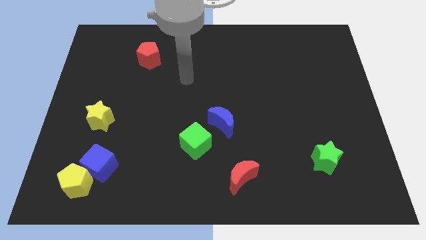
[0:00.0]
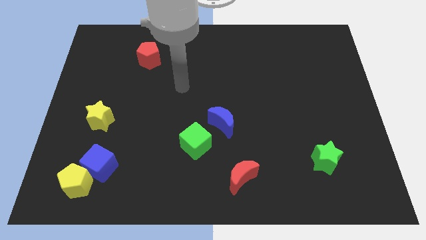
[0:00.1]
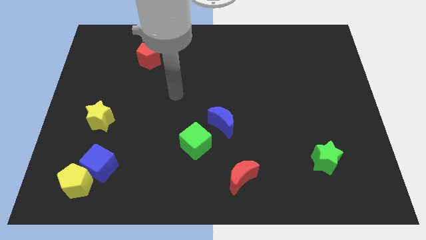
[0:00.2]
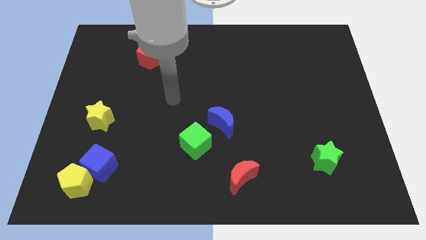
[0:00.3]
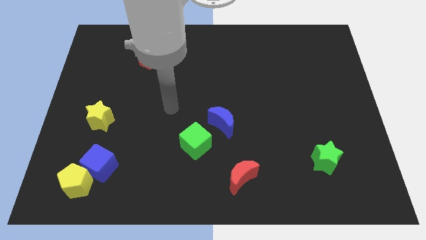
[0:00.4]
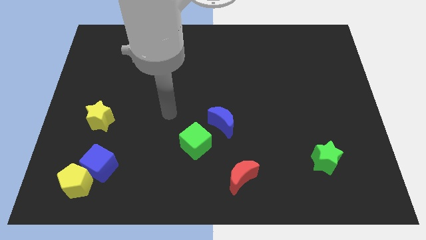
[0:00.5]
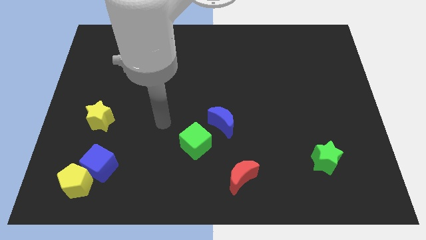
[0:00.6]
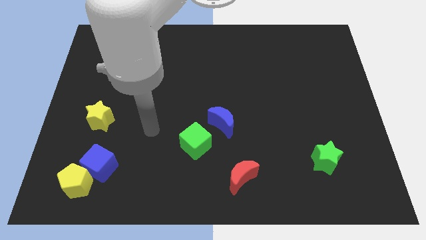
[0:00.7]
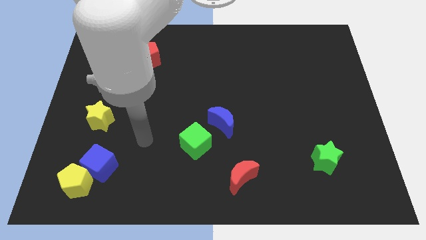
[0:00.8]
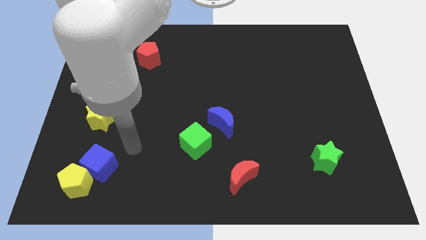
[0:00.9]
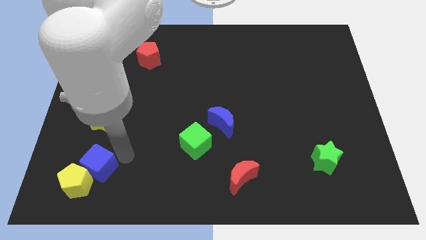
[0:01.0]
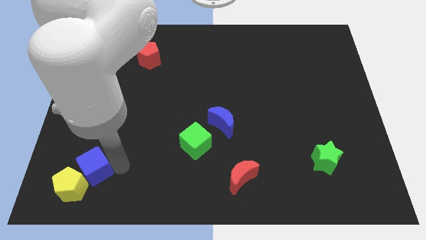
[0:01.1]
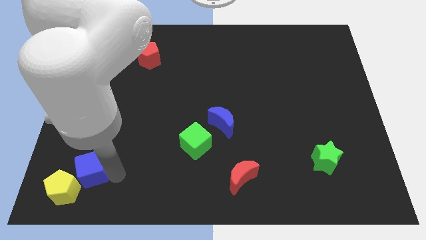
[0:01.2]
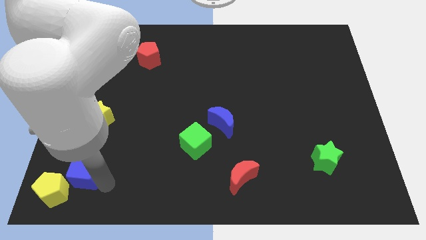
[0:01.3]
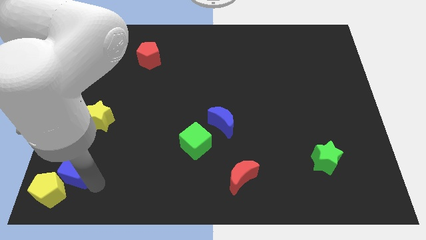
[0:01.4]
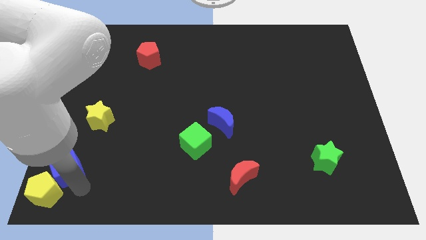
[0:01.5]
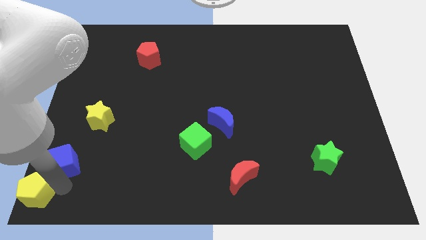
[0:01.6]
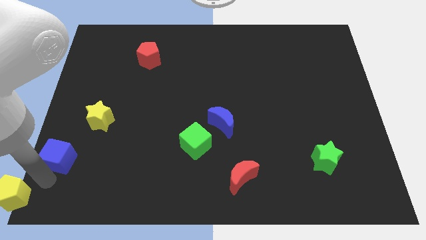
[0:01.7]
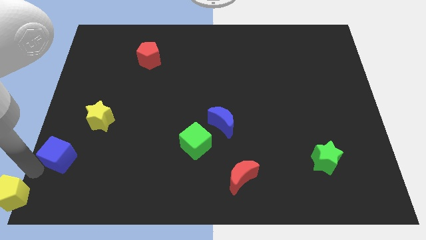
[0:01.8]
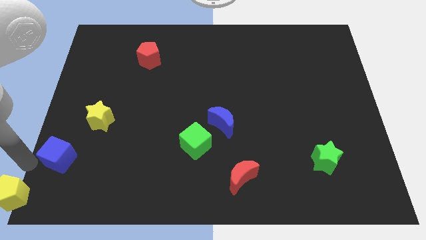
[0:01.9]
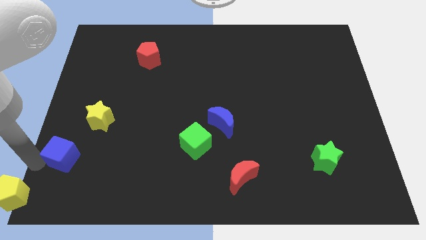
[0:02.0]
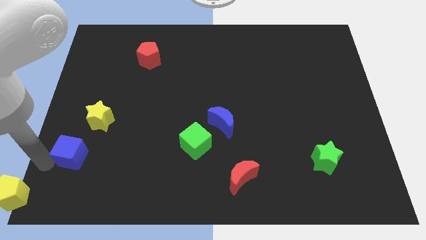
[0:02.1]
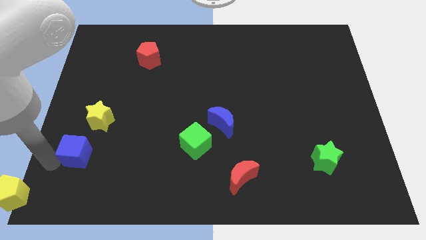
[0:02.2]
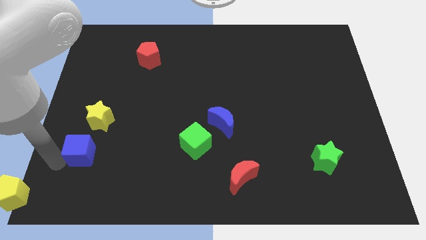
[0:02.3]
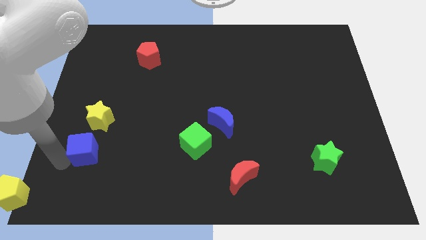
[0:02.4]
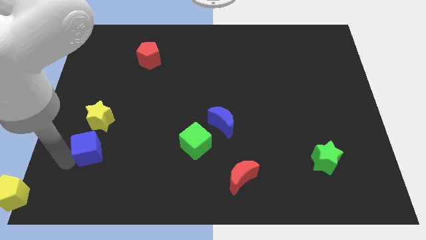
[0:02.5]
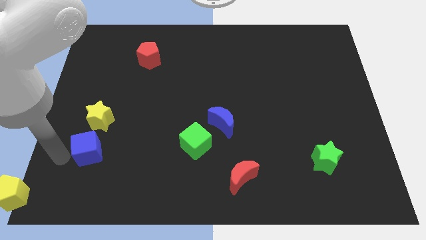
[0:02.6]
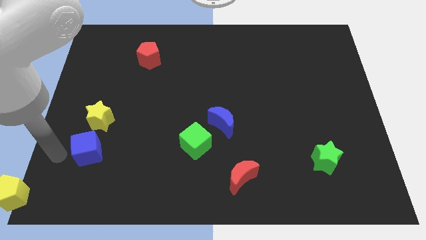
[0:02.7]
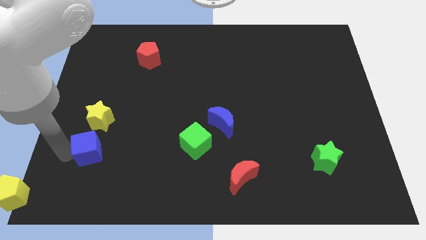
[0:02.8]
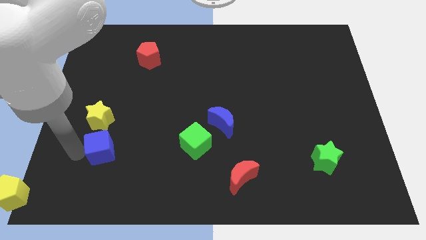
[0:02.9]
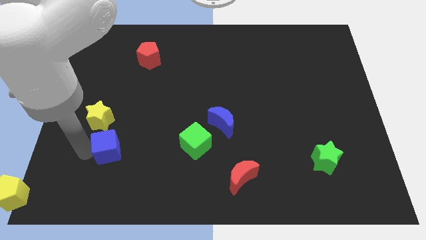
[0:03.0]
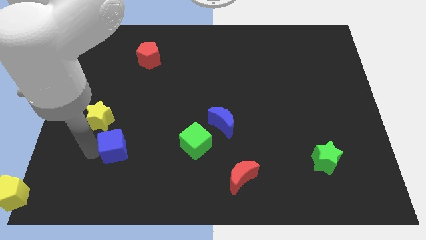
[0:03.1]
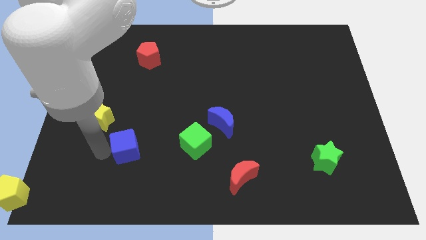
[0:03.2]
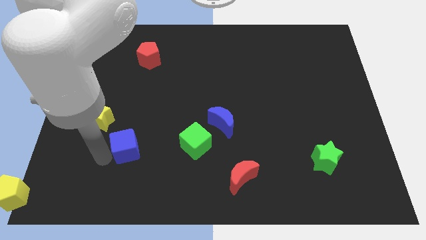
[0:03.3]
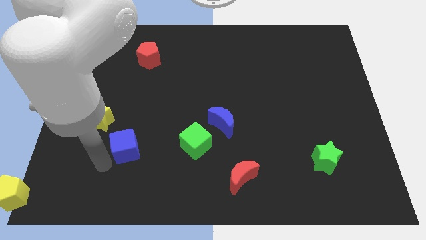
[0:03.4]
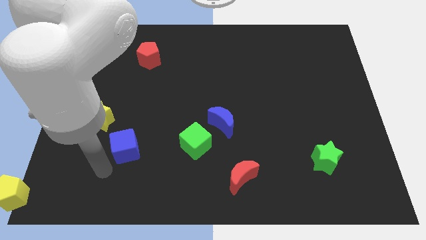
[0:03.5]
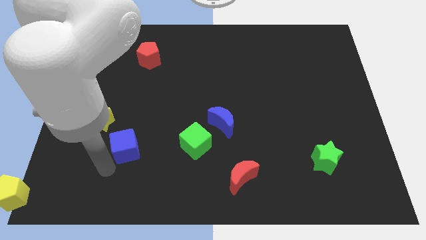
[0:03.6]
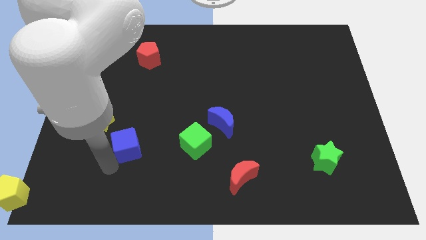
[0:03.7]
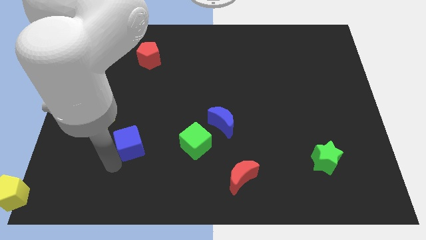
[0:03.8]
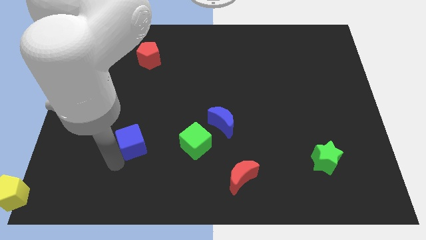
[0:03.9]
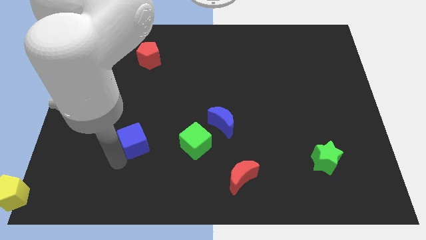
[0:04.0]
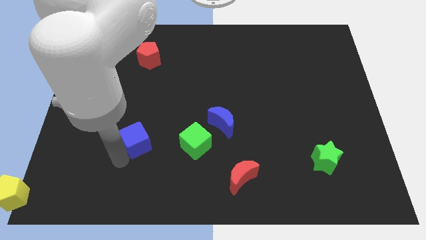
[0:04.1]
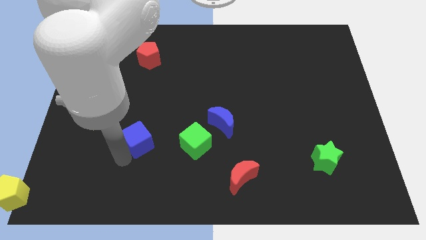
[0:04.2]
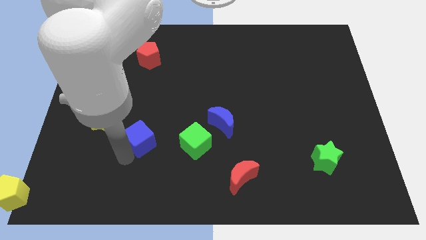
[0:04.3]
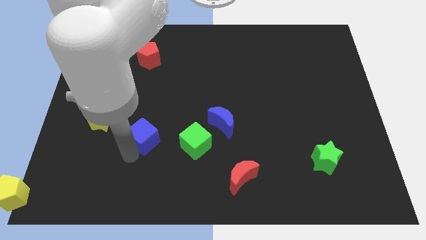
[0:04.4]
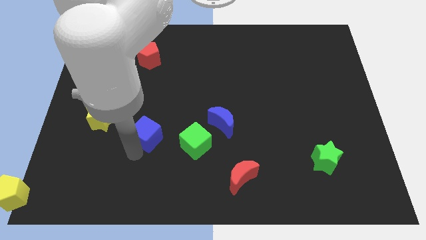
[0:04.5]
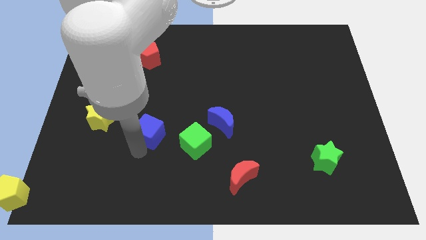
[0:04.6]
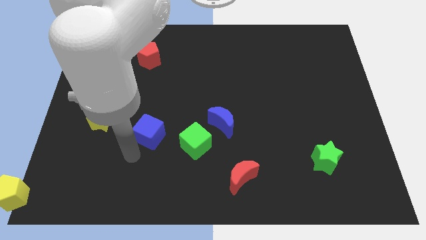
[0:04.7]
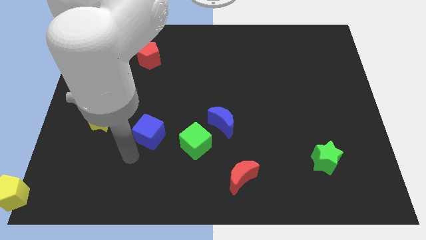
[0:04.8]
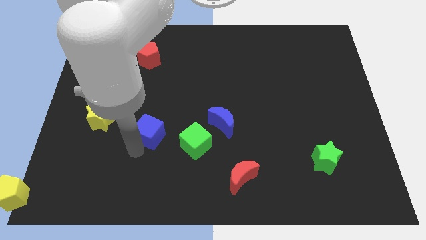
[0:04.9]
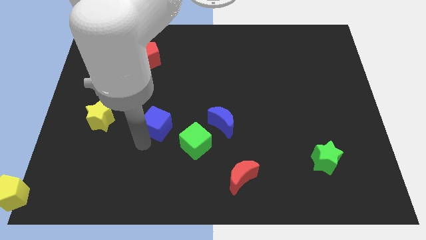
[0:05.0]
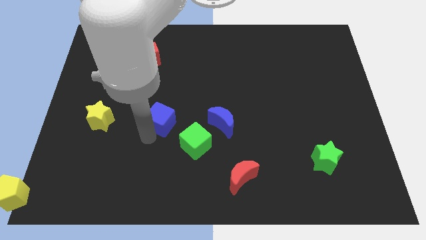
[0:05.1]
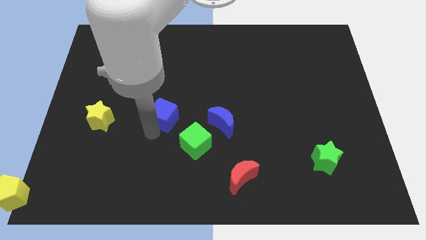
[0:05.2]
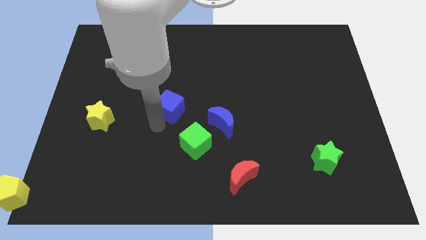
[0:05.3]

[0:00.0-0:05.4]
push the blue cube upwards and right diagonally

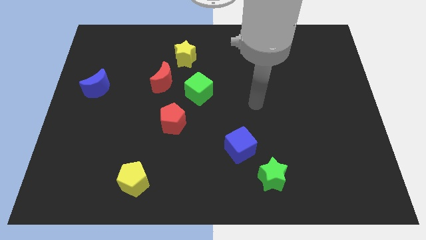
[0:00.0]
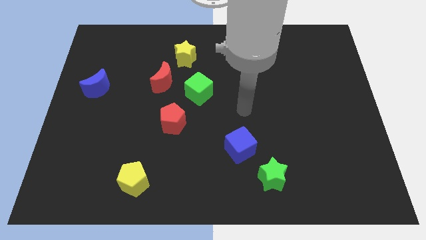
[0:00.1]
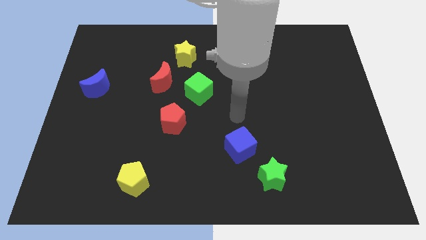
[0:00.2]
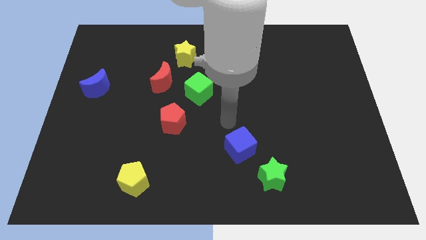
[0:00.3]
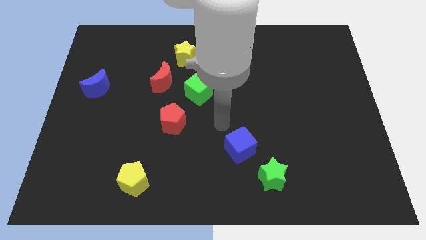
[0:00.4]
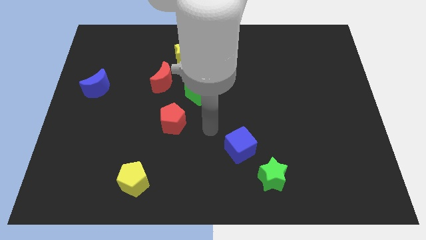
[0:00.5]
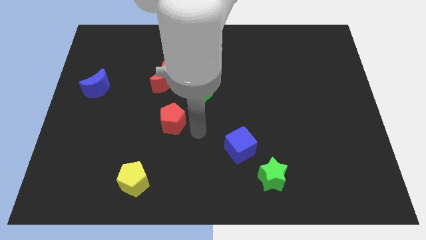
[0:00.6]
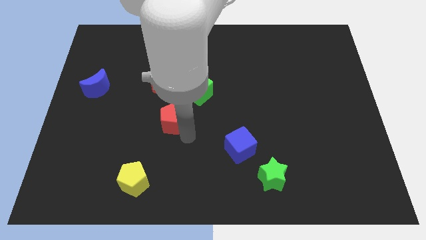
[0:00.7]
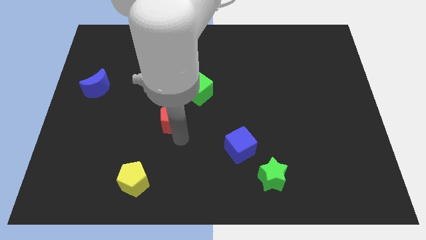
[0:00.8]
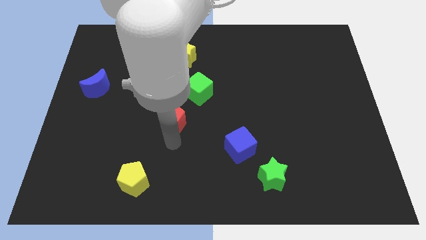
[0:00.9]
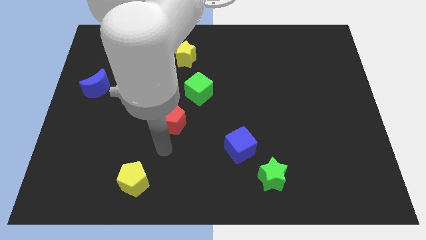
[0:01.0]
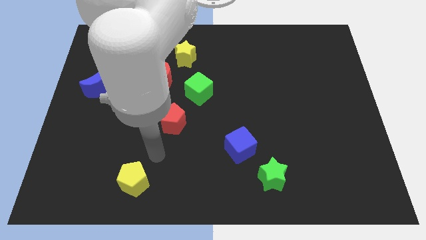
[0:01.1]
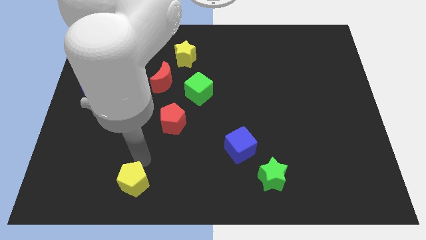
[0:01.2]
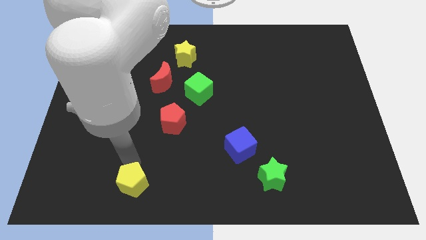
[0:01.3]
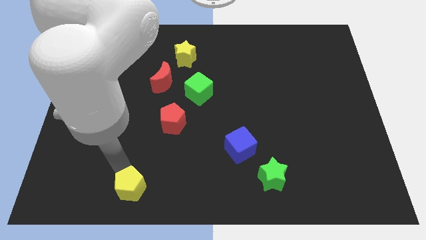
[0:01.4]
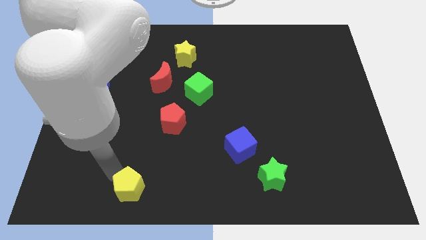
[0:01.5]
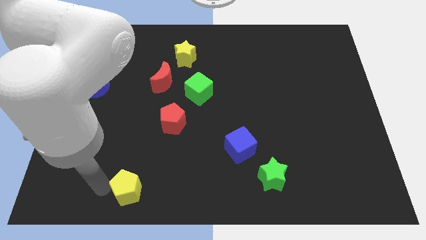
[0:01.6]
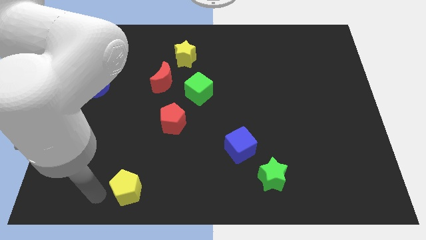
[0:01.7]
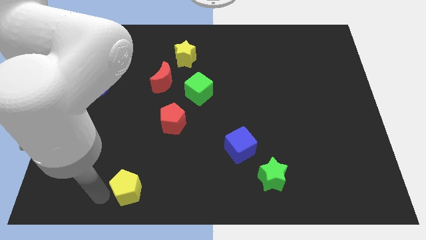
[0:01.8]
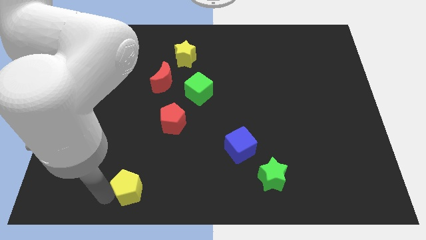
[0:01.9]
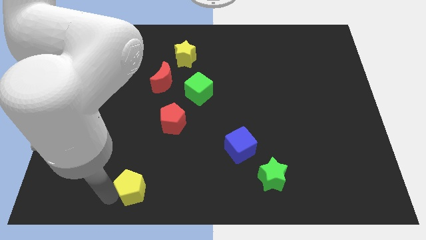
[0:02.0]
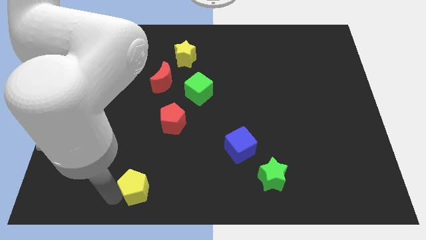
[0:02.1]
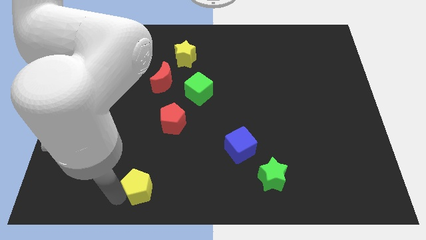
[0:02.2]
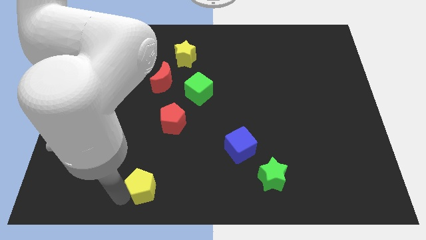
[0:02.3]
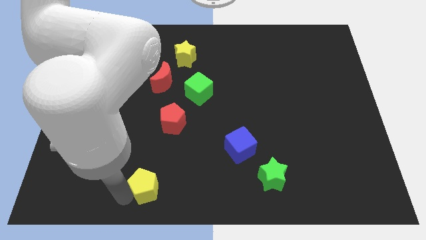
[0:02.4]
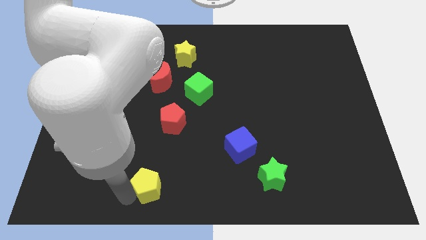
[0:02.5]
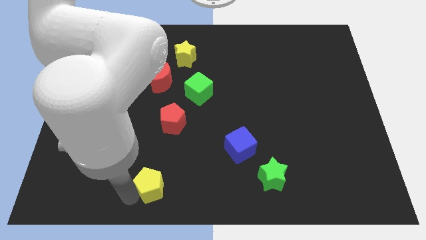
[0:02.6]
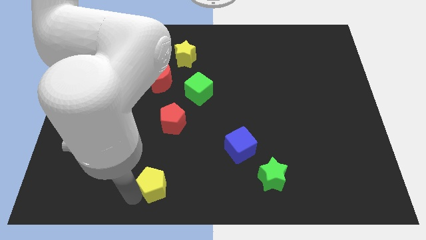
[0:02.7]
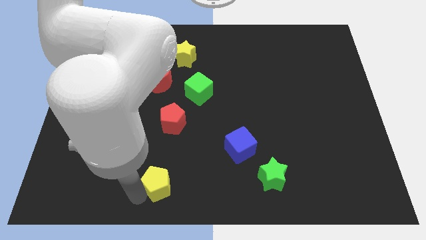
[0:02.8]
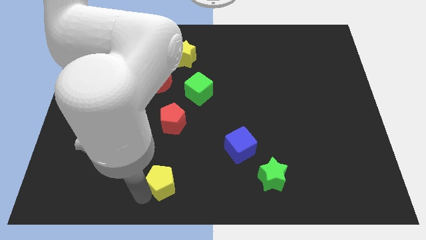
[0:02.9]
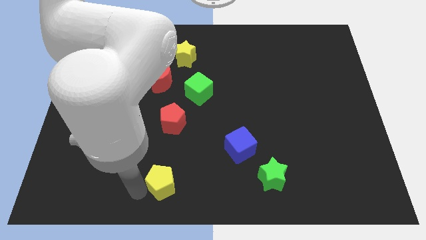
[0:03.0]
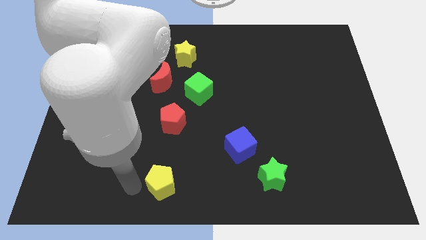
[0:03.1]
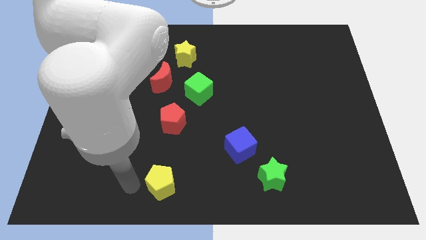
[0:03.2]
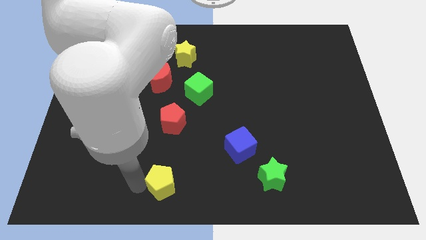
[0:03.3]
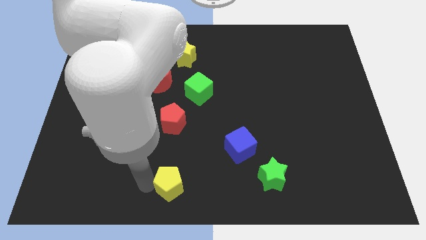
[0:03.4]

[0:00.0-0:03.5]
slightly slide the yellow pentagon to the right
